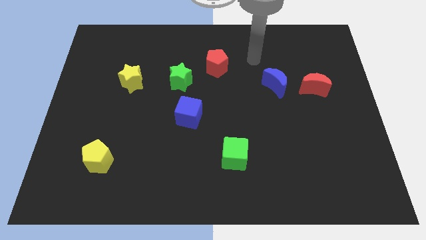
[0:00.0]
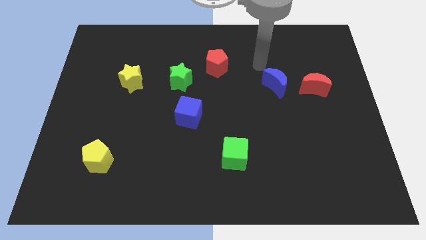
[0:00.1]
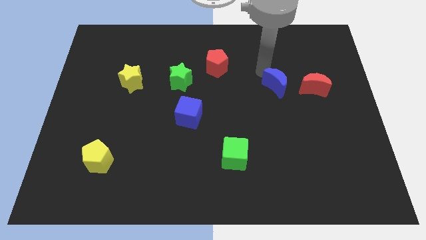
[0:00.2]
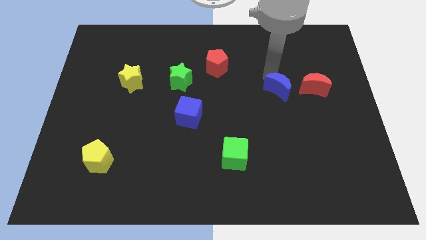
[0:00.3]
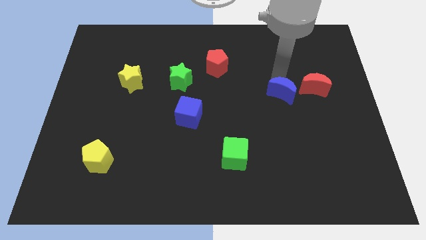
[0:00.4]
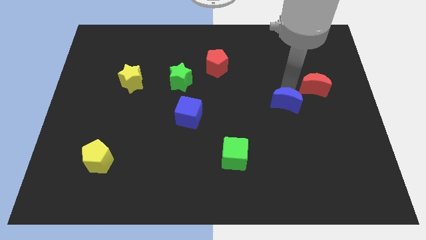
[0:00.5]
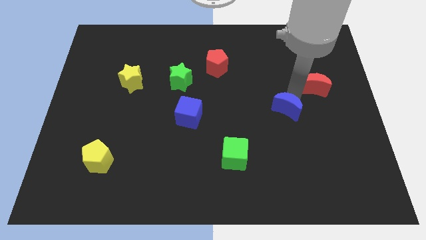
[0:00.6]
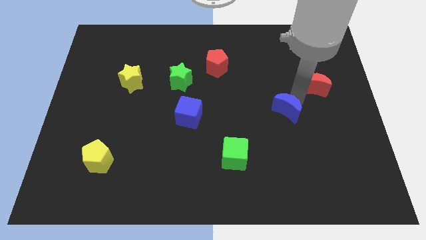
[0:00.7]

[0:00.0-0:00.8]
pull the red moon apart from the blue moon

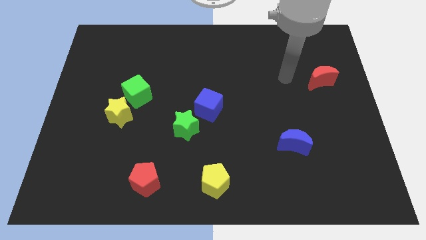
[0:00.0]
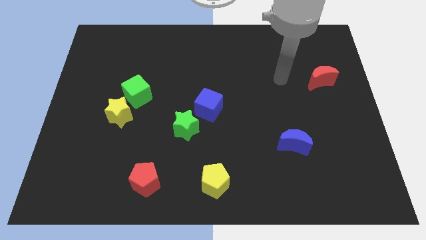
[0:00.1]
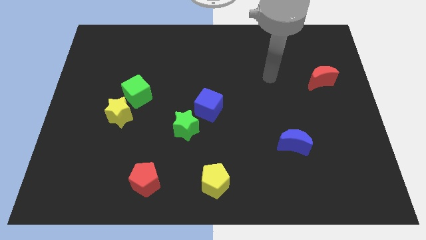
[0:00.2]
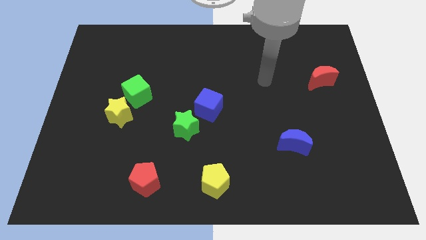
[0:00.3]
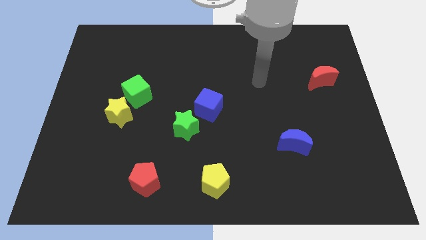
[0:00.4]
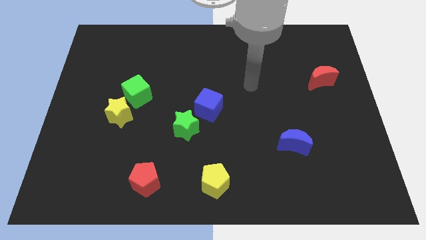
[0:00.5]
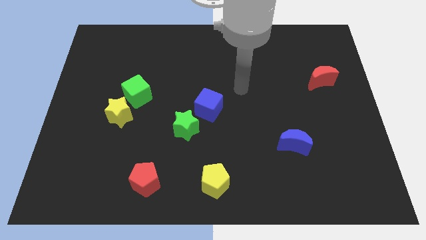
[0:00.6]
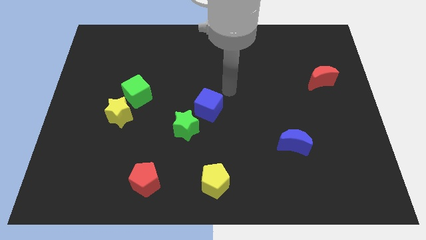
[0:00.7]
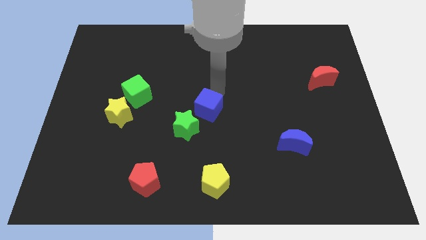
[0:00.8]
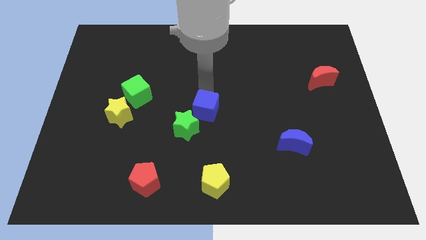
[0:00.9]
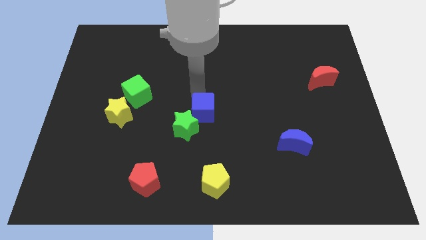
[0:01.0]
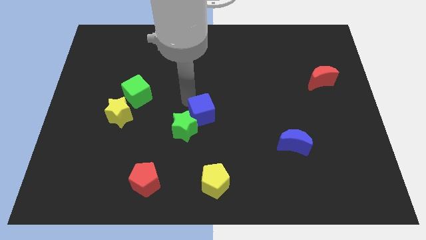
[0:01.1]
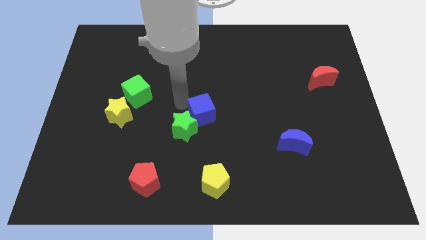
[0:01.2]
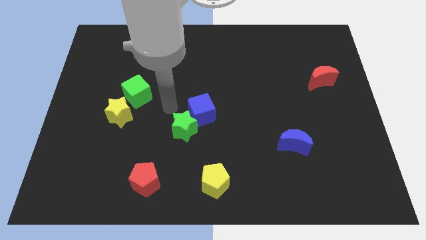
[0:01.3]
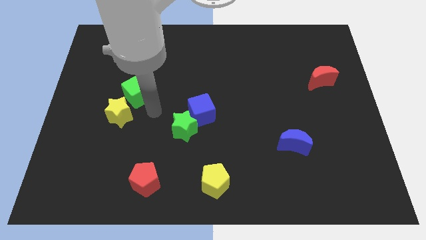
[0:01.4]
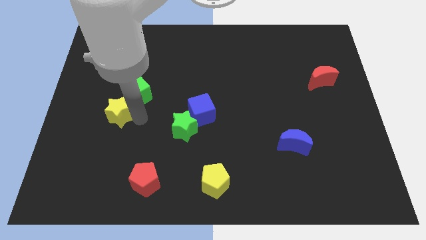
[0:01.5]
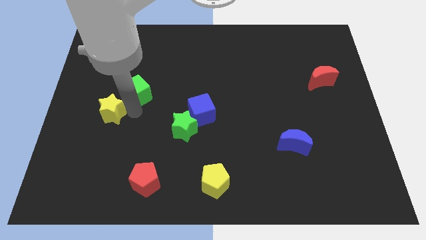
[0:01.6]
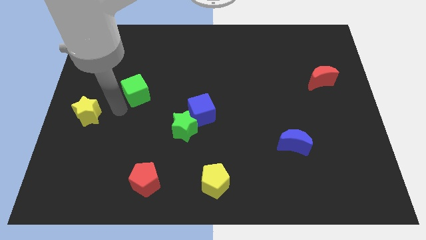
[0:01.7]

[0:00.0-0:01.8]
separate the green cube from the yellow star

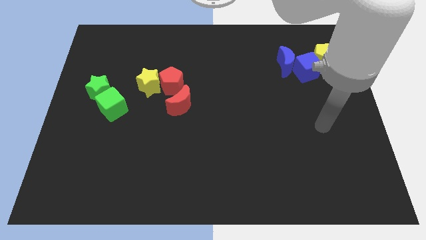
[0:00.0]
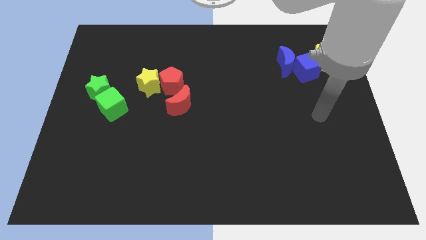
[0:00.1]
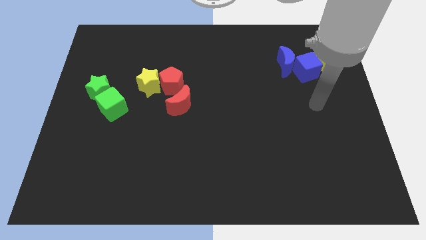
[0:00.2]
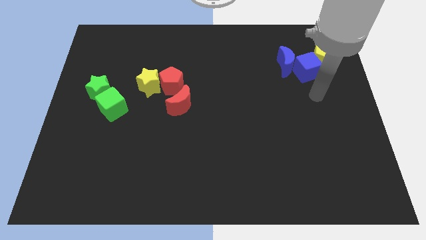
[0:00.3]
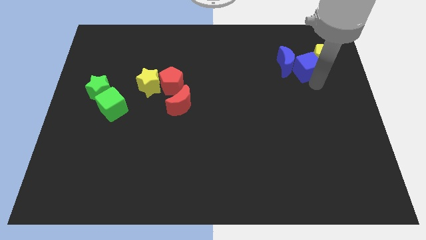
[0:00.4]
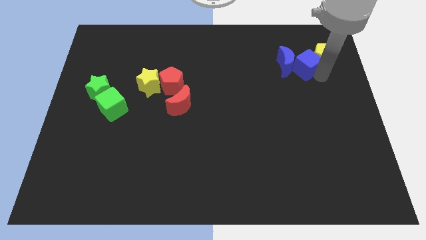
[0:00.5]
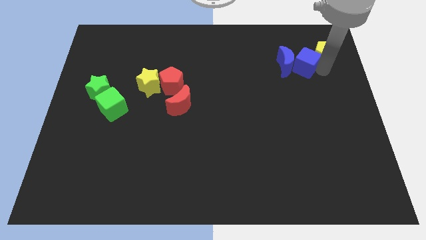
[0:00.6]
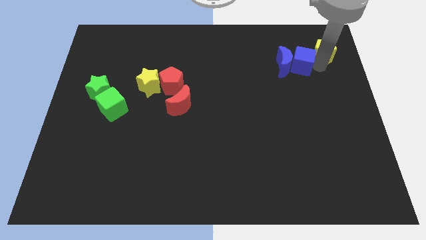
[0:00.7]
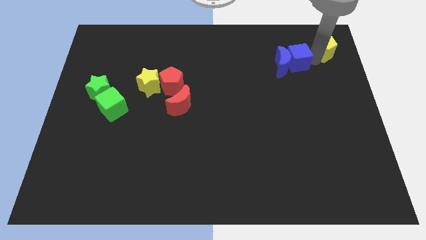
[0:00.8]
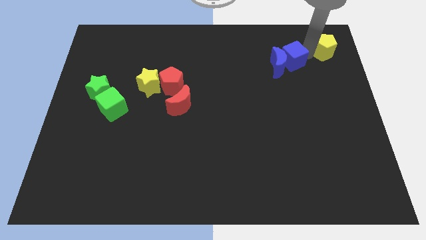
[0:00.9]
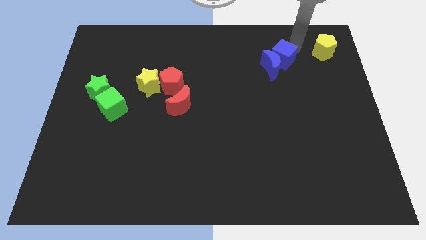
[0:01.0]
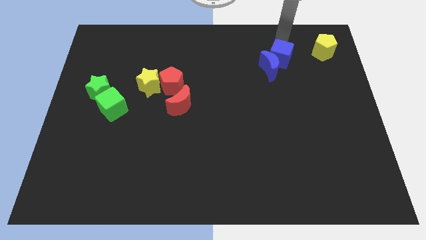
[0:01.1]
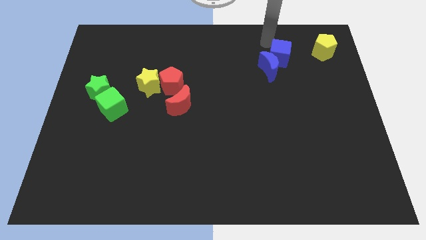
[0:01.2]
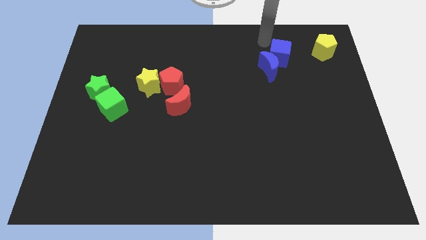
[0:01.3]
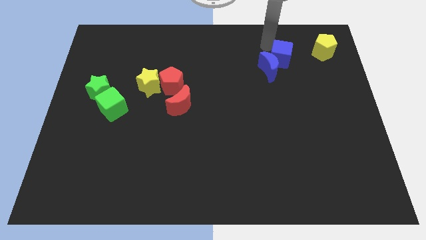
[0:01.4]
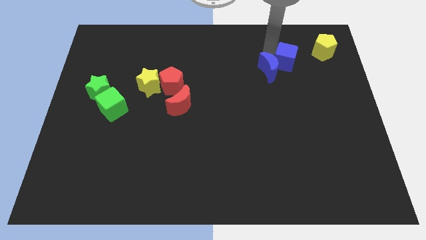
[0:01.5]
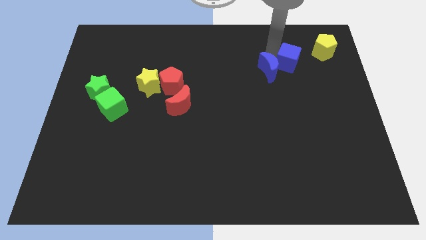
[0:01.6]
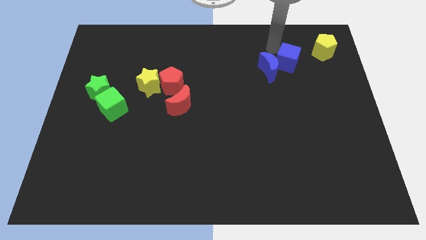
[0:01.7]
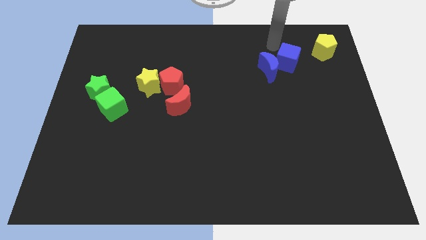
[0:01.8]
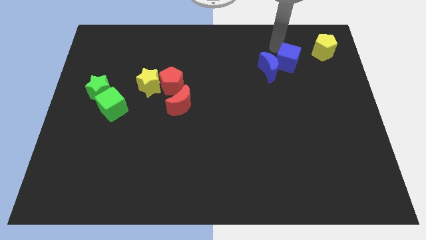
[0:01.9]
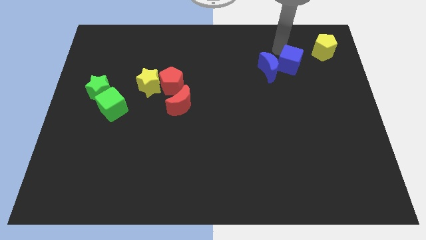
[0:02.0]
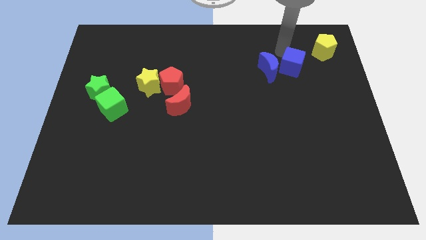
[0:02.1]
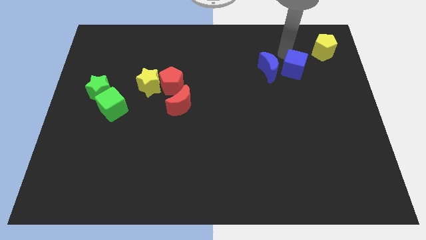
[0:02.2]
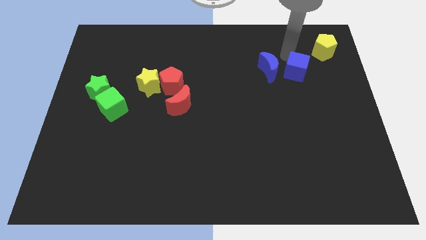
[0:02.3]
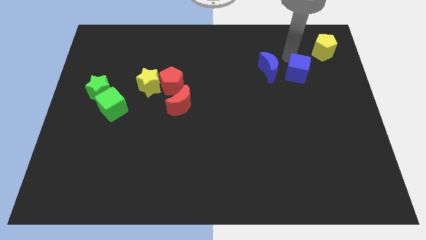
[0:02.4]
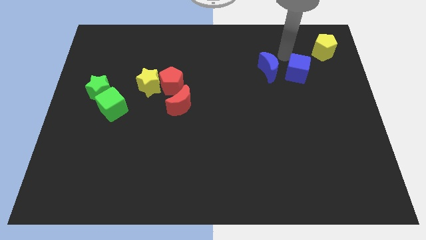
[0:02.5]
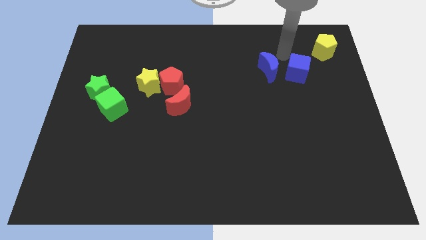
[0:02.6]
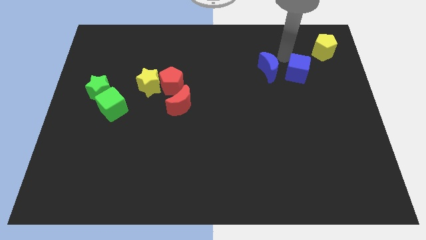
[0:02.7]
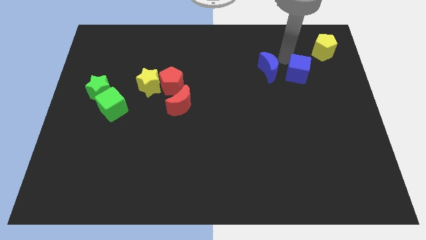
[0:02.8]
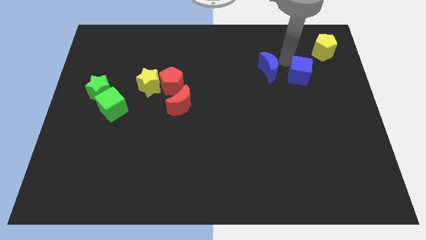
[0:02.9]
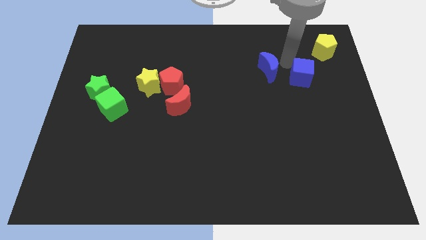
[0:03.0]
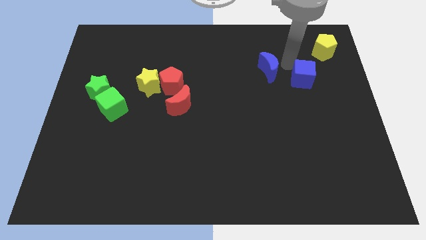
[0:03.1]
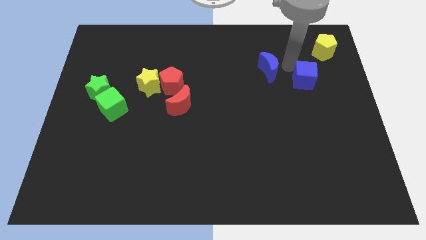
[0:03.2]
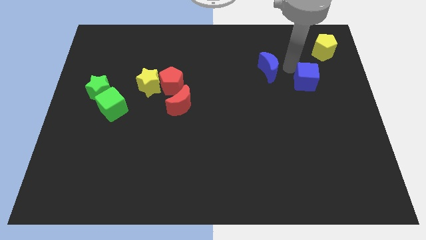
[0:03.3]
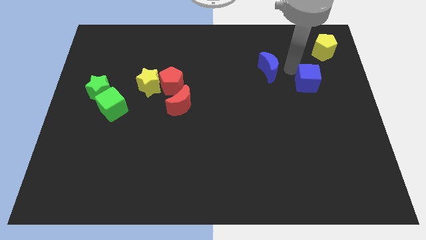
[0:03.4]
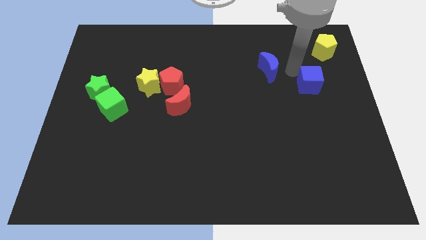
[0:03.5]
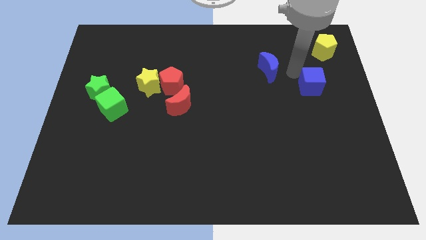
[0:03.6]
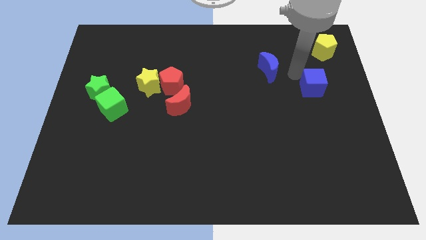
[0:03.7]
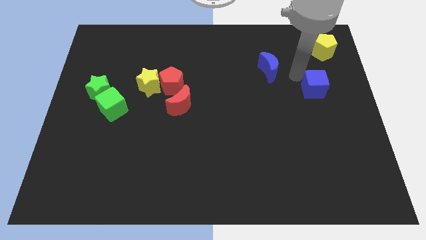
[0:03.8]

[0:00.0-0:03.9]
separate the blue cube from the blue moon and yellow pentagon

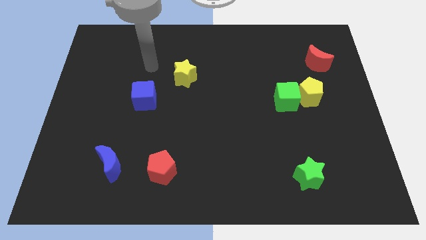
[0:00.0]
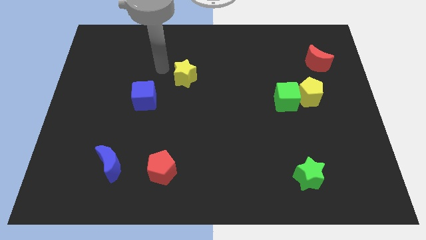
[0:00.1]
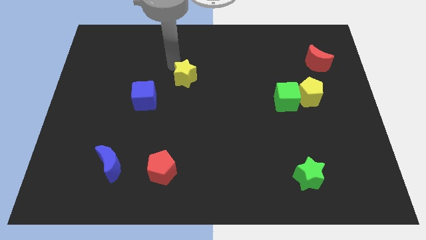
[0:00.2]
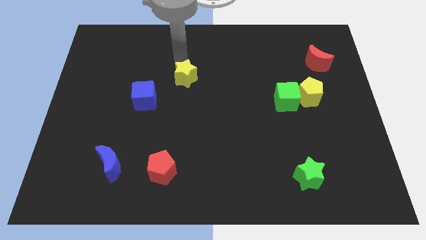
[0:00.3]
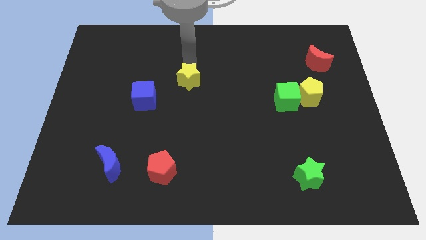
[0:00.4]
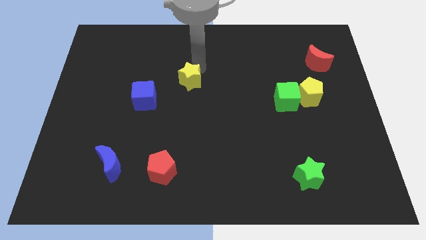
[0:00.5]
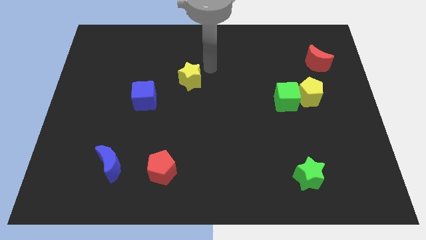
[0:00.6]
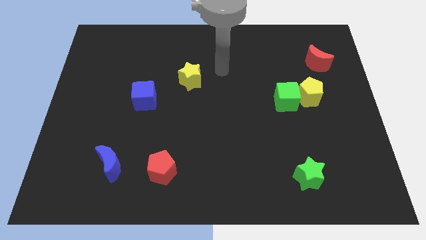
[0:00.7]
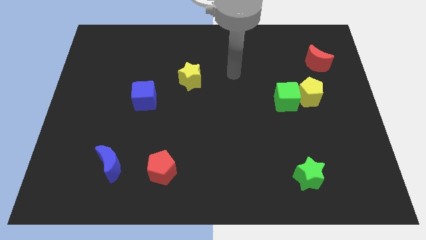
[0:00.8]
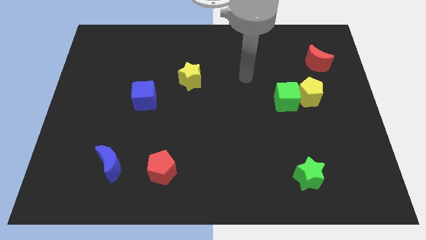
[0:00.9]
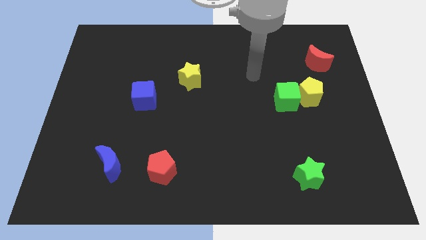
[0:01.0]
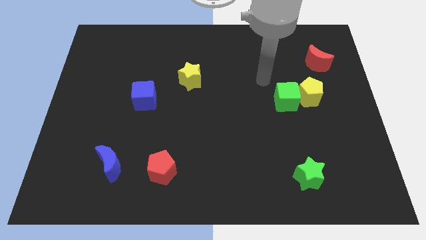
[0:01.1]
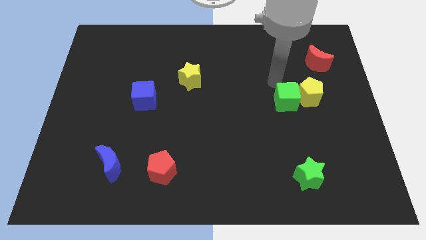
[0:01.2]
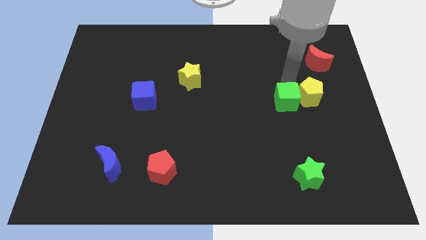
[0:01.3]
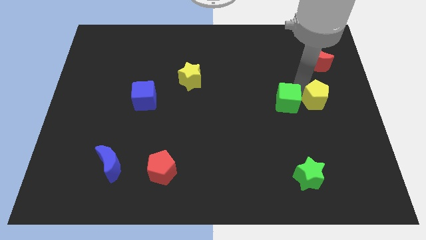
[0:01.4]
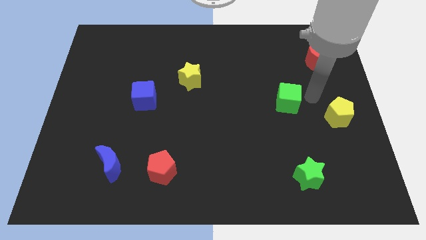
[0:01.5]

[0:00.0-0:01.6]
move the green cube away from the yellow pentagon

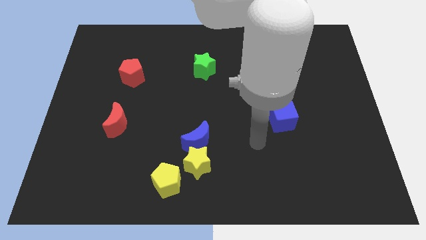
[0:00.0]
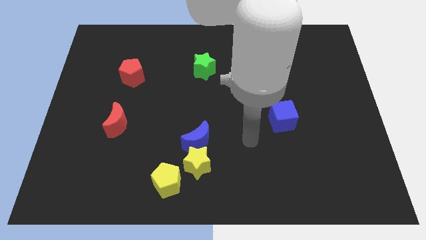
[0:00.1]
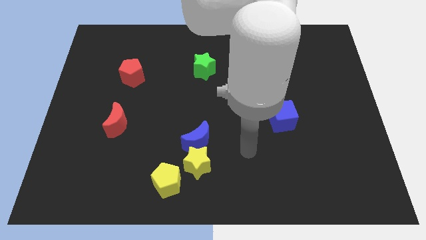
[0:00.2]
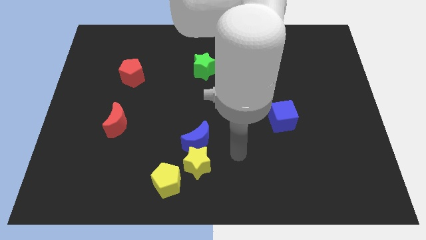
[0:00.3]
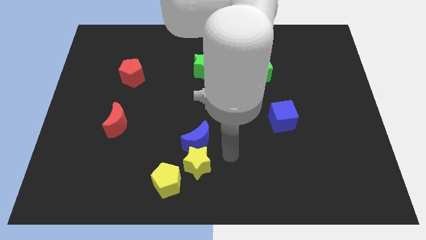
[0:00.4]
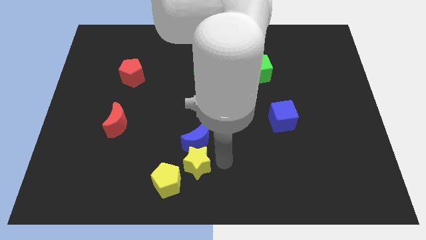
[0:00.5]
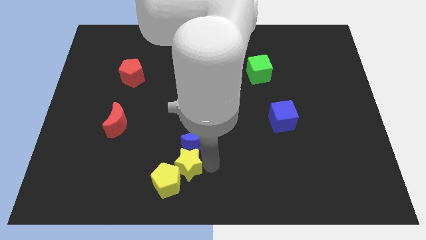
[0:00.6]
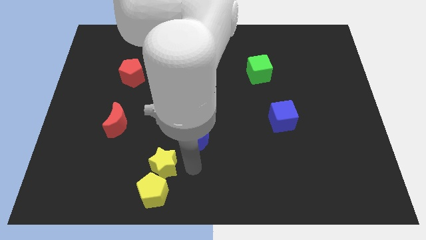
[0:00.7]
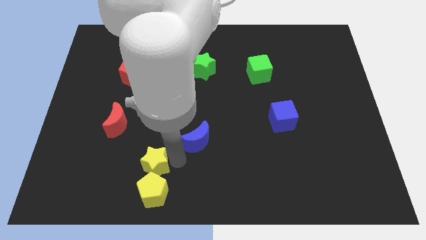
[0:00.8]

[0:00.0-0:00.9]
move the blue moon away from the yellow star

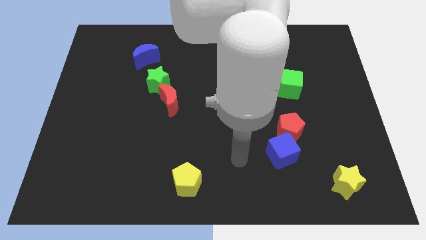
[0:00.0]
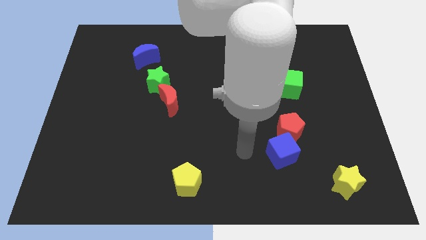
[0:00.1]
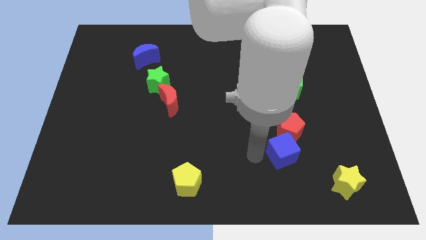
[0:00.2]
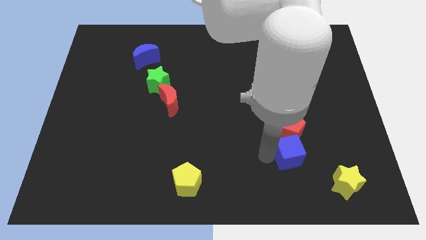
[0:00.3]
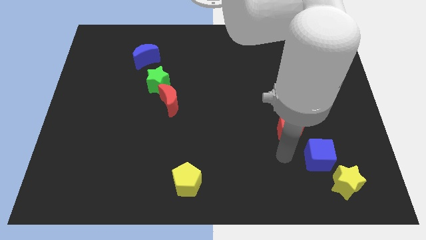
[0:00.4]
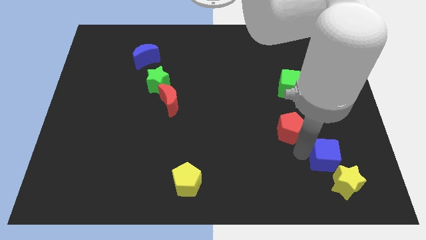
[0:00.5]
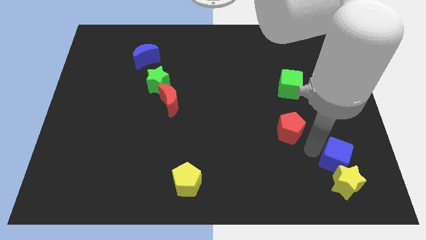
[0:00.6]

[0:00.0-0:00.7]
move the red pentagon away from the blue cube
